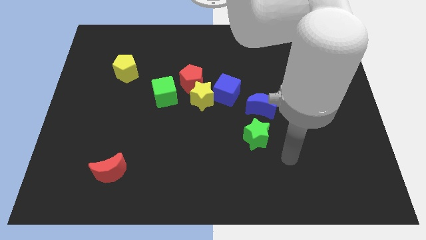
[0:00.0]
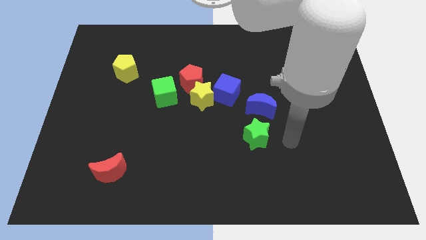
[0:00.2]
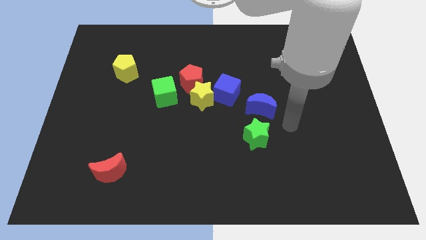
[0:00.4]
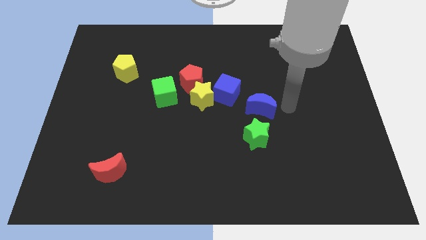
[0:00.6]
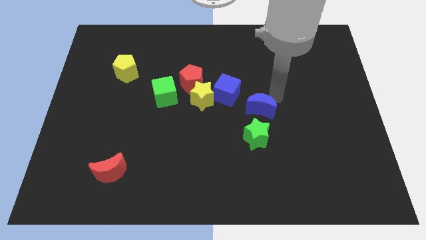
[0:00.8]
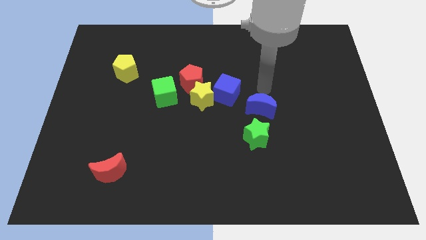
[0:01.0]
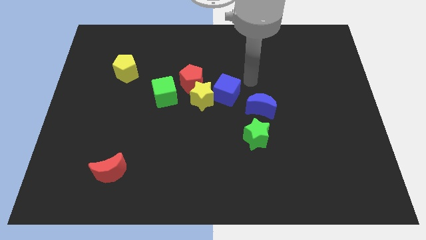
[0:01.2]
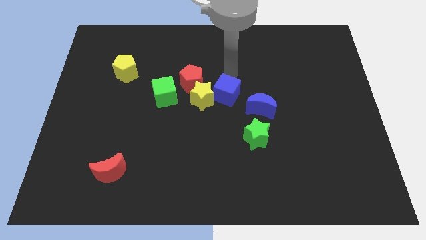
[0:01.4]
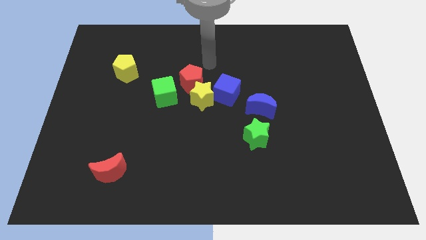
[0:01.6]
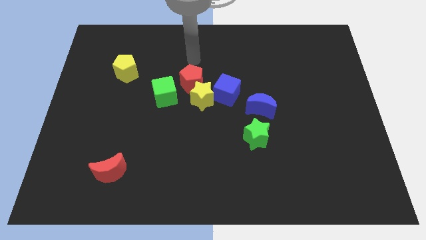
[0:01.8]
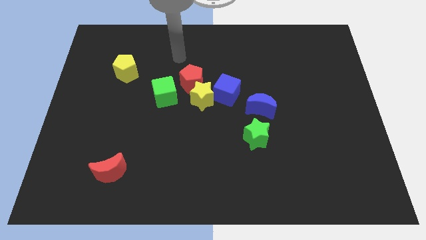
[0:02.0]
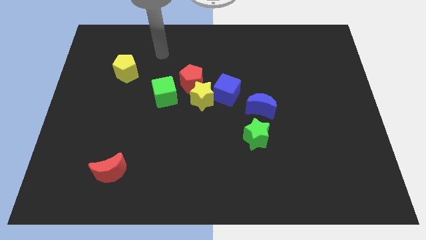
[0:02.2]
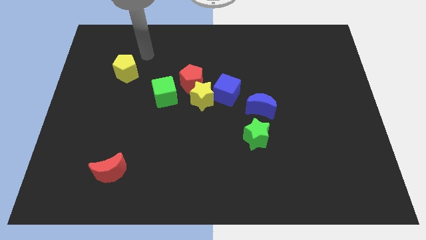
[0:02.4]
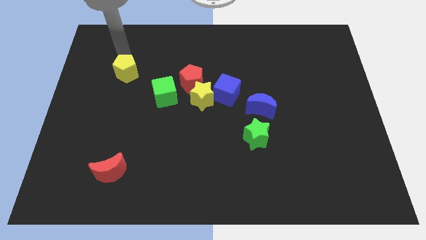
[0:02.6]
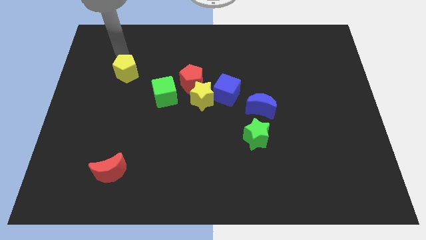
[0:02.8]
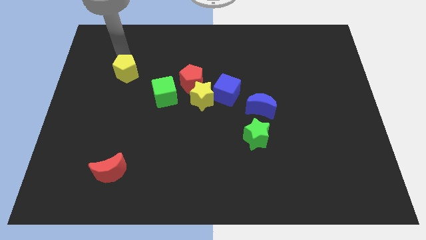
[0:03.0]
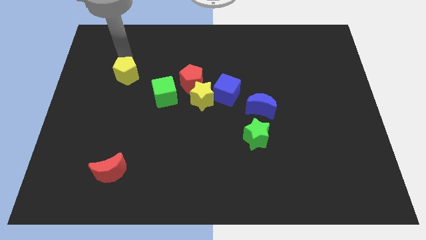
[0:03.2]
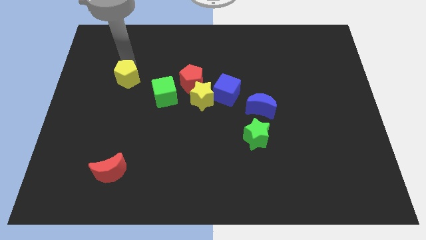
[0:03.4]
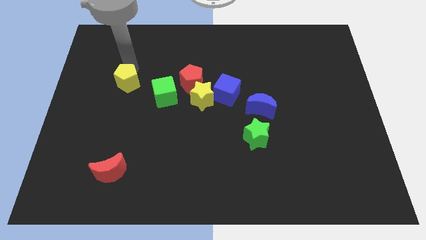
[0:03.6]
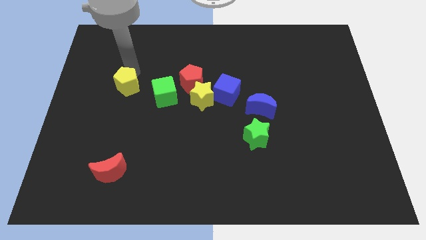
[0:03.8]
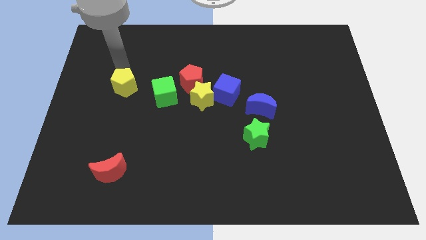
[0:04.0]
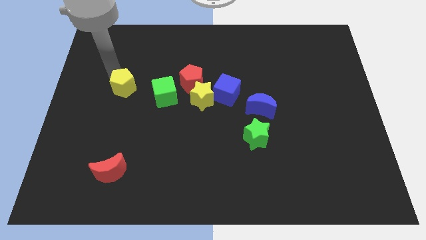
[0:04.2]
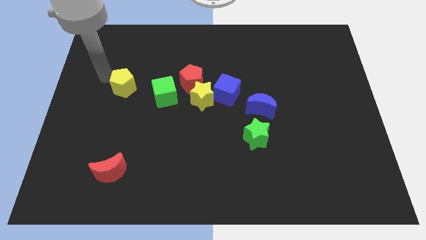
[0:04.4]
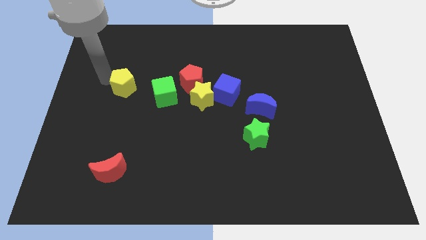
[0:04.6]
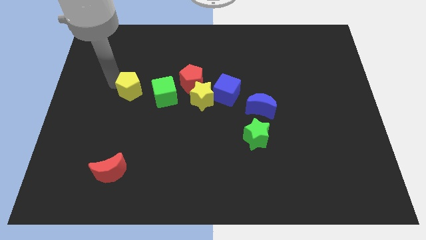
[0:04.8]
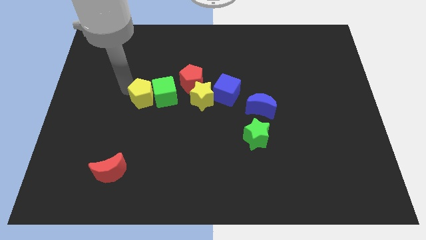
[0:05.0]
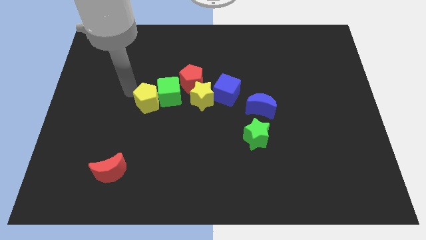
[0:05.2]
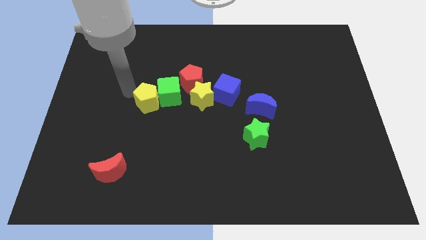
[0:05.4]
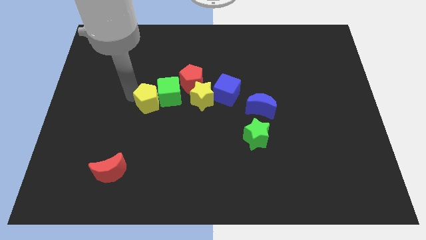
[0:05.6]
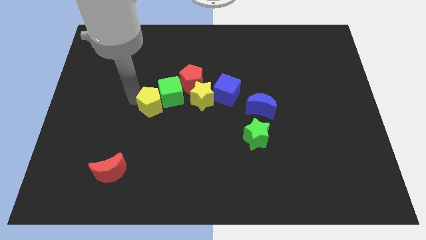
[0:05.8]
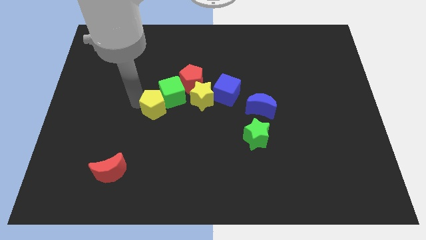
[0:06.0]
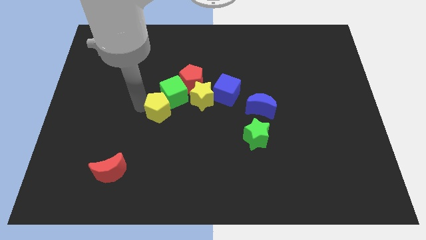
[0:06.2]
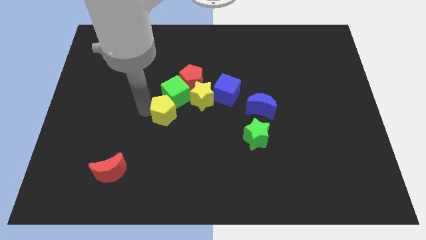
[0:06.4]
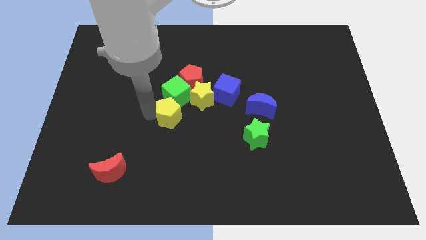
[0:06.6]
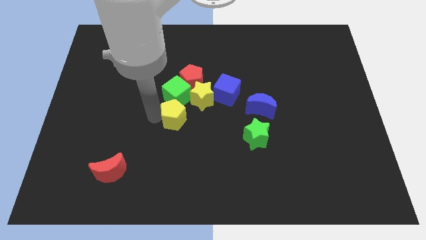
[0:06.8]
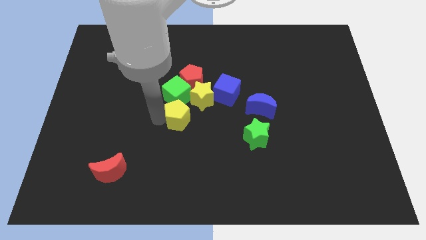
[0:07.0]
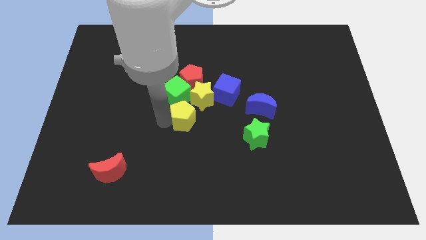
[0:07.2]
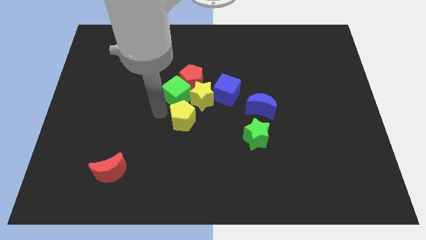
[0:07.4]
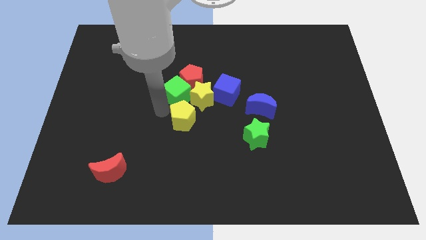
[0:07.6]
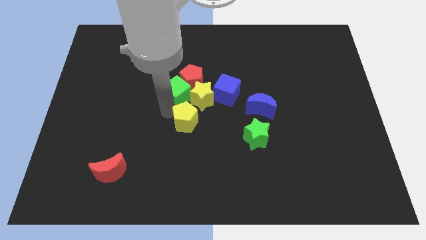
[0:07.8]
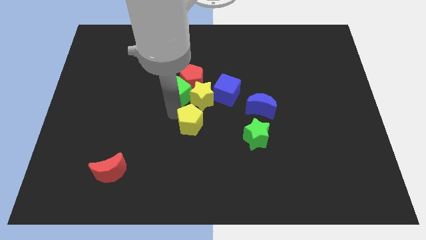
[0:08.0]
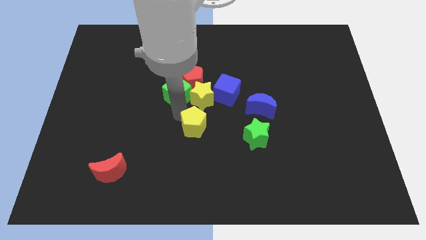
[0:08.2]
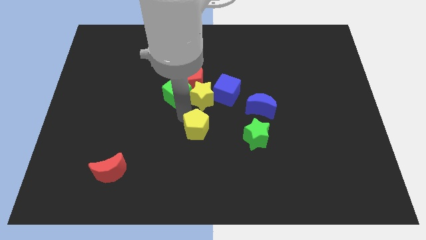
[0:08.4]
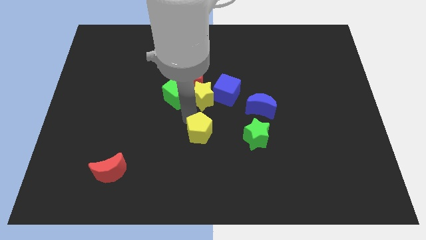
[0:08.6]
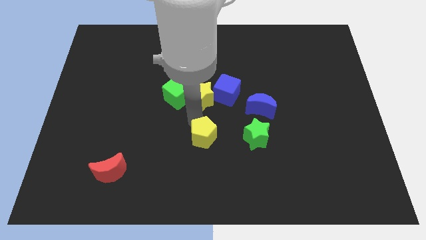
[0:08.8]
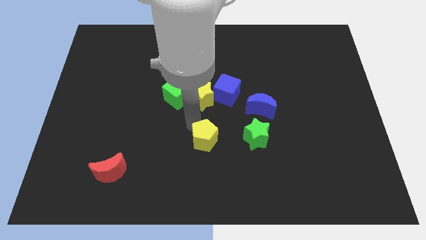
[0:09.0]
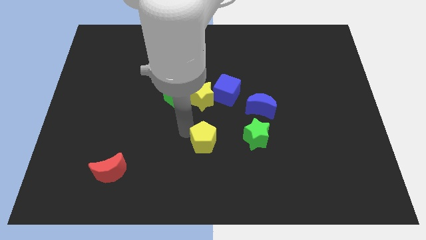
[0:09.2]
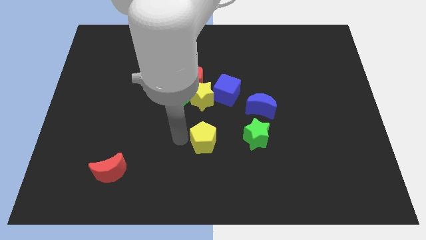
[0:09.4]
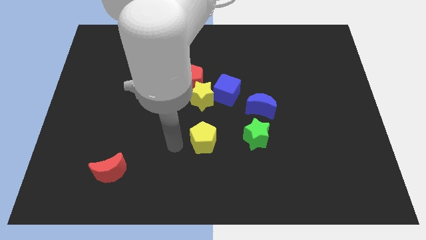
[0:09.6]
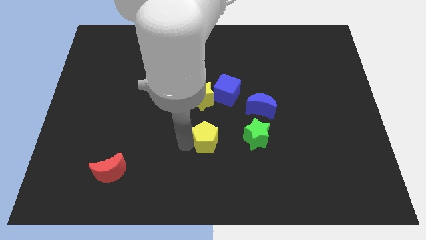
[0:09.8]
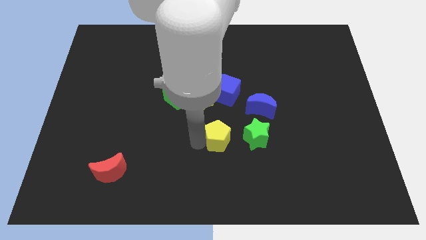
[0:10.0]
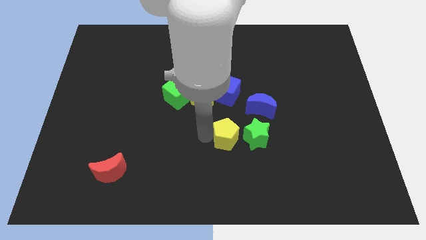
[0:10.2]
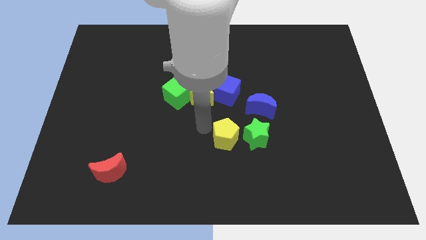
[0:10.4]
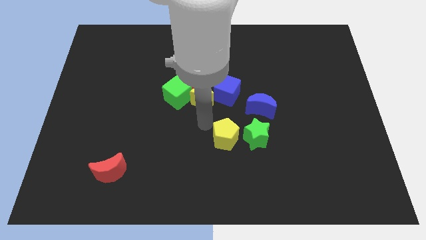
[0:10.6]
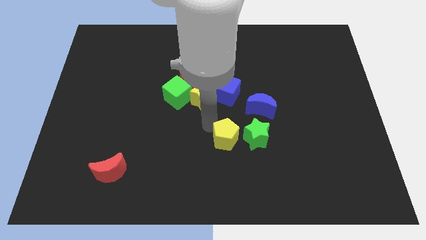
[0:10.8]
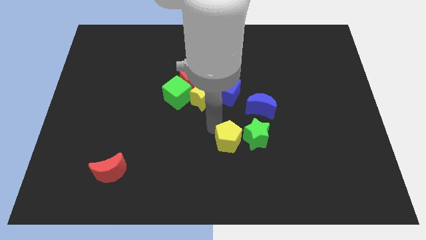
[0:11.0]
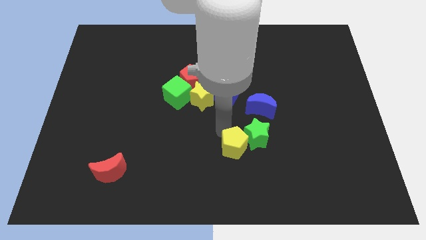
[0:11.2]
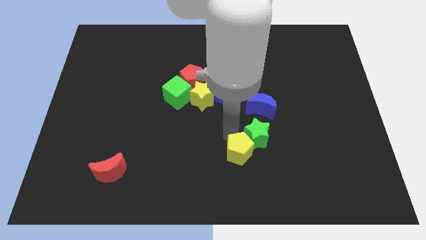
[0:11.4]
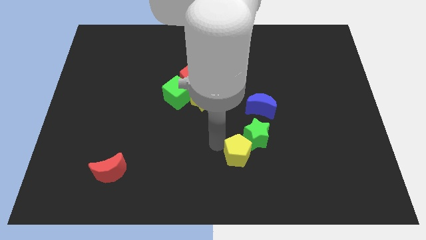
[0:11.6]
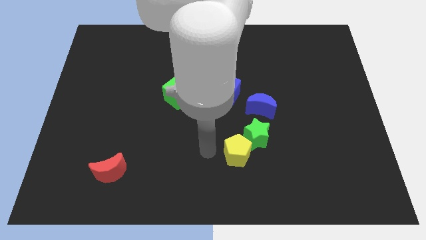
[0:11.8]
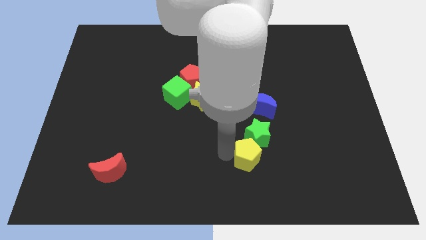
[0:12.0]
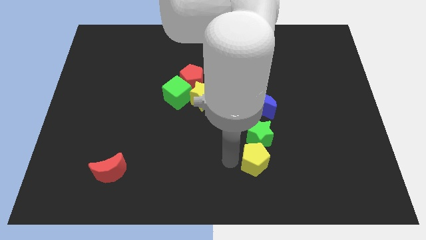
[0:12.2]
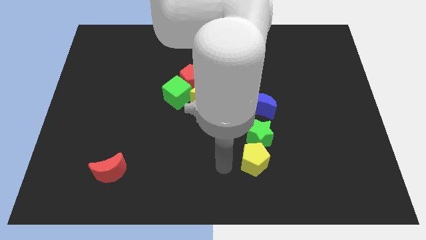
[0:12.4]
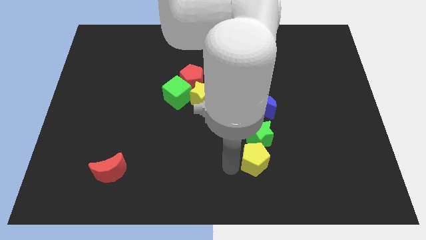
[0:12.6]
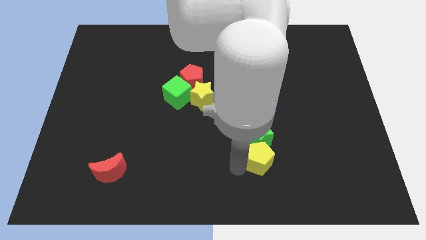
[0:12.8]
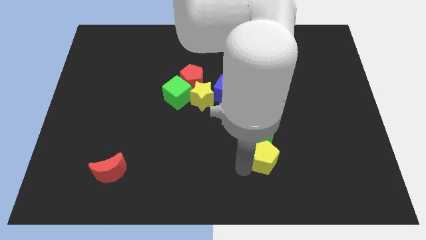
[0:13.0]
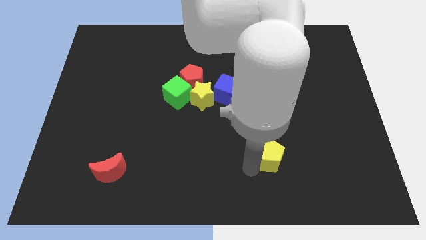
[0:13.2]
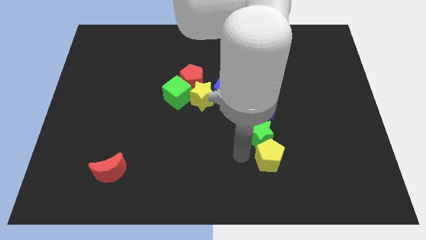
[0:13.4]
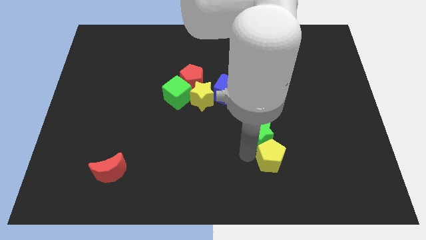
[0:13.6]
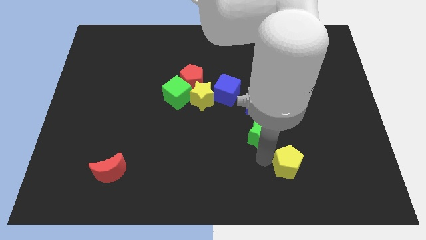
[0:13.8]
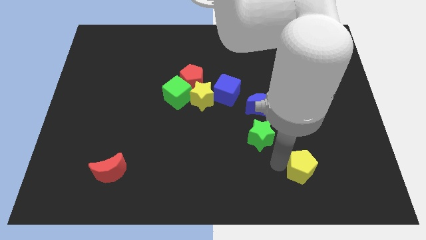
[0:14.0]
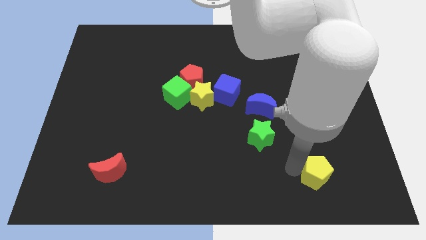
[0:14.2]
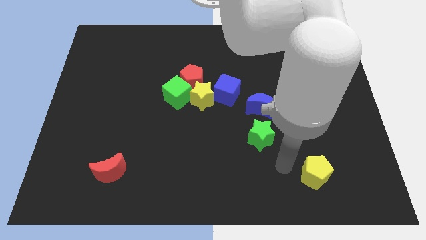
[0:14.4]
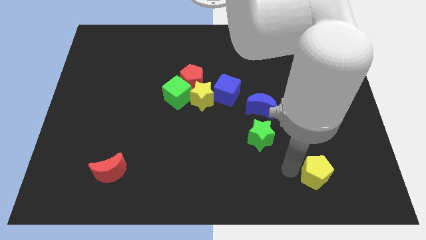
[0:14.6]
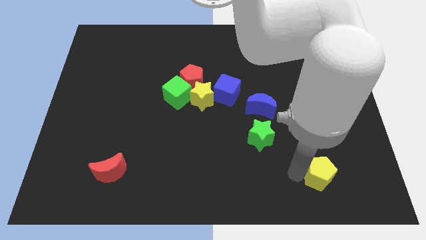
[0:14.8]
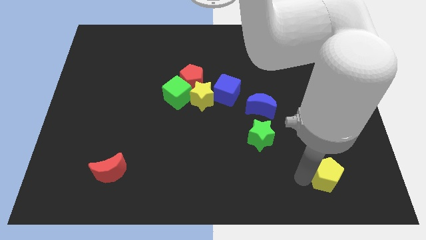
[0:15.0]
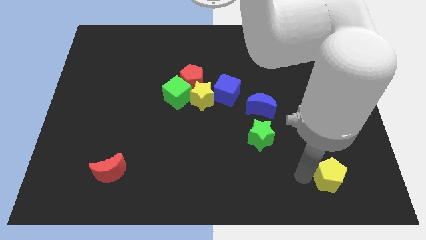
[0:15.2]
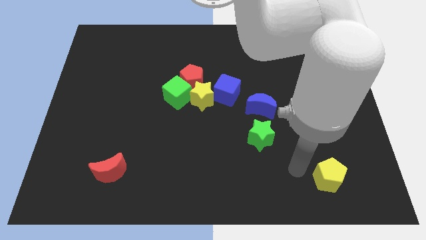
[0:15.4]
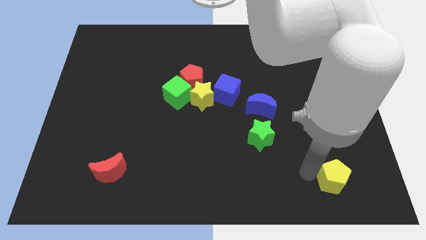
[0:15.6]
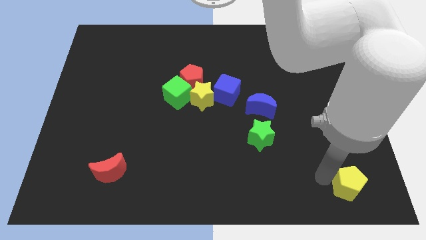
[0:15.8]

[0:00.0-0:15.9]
slide the yellow pentagon to the bottom right corner
